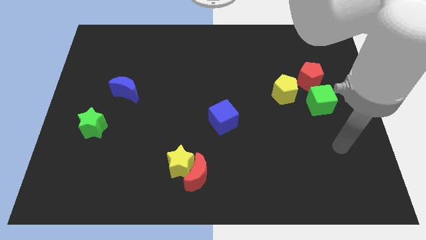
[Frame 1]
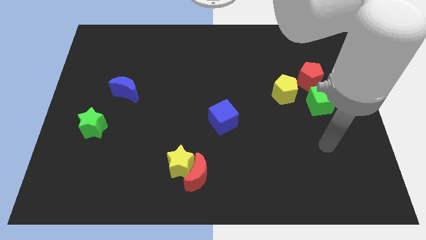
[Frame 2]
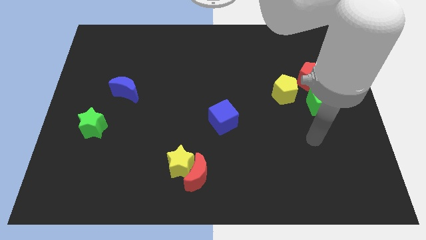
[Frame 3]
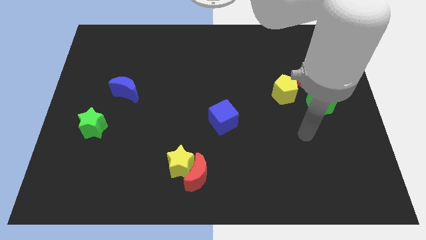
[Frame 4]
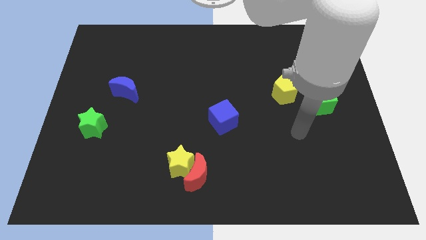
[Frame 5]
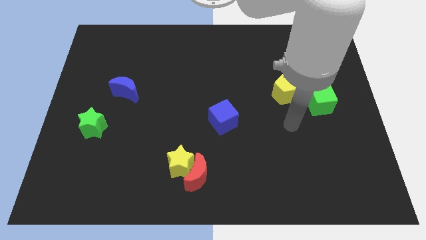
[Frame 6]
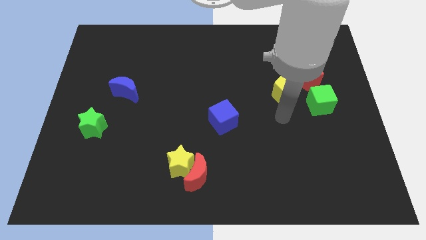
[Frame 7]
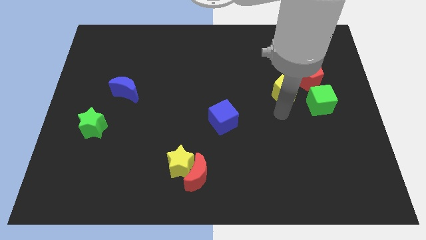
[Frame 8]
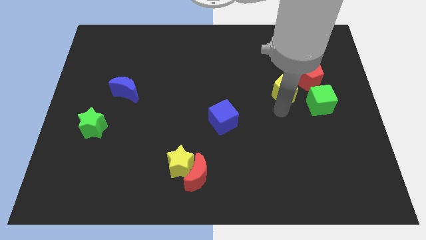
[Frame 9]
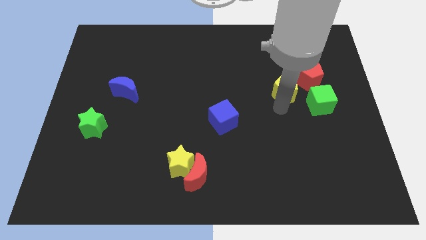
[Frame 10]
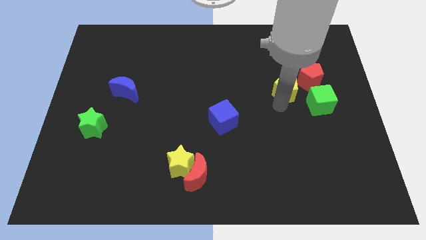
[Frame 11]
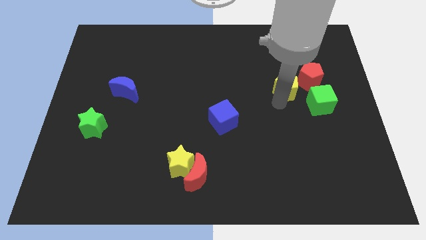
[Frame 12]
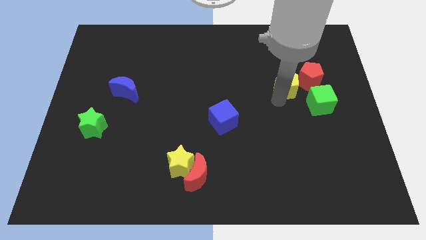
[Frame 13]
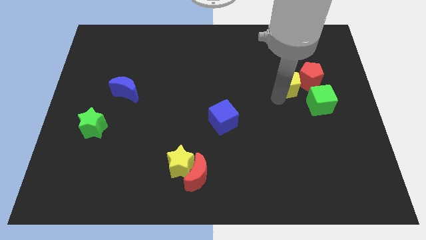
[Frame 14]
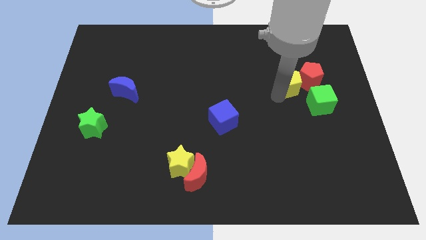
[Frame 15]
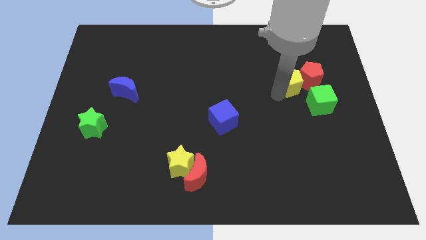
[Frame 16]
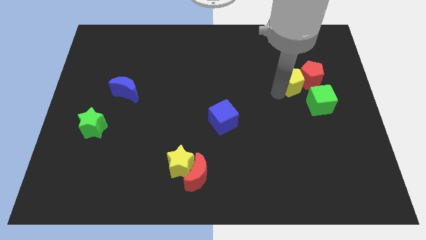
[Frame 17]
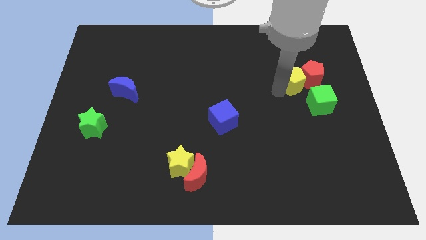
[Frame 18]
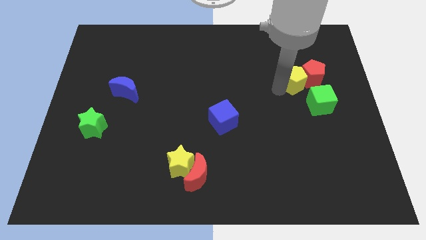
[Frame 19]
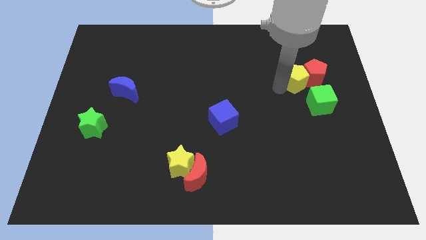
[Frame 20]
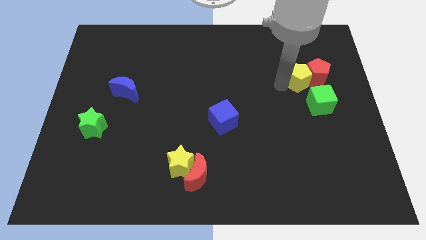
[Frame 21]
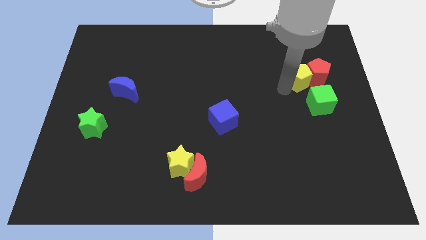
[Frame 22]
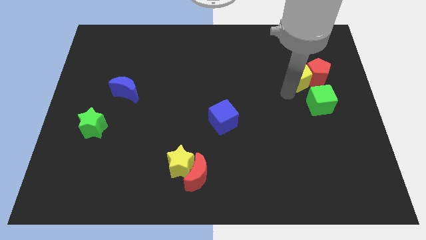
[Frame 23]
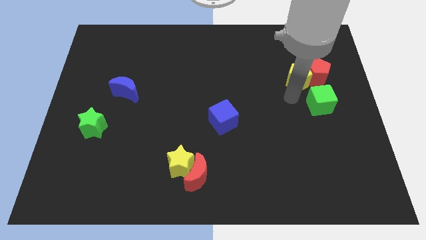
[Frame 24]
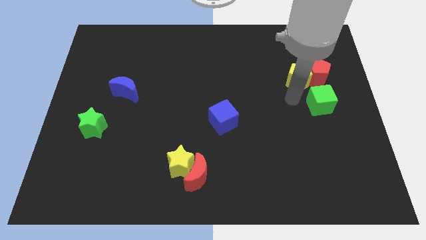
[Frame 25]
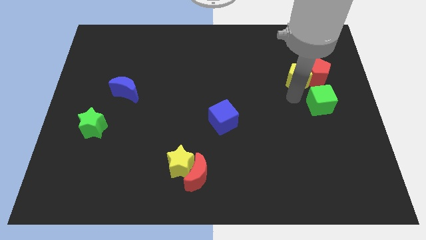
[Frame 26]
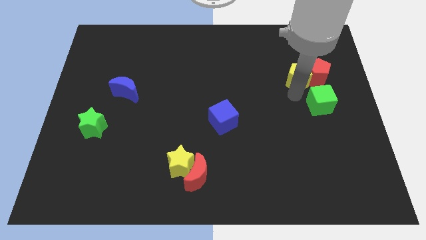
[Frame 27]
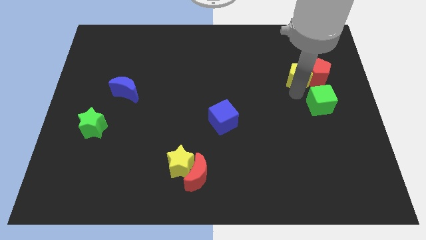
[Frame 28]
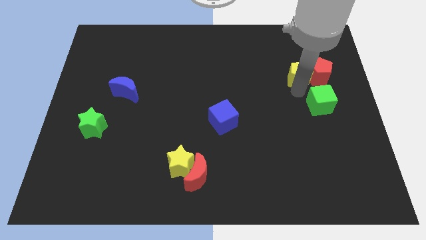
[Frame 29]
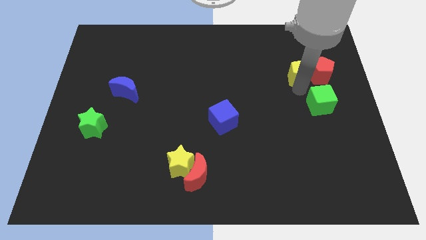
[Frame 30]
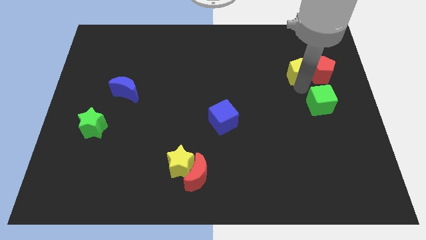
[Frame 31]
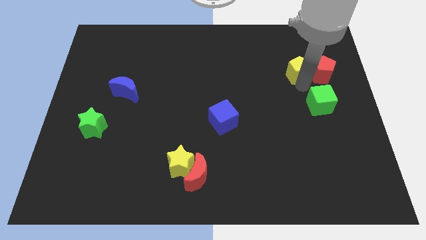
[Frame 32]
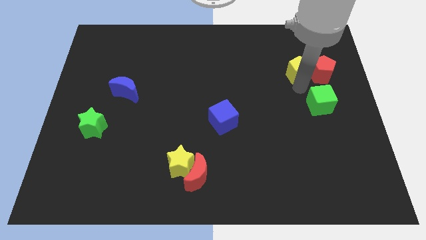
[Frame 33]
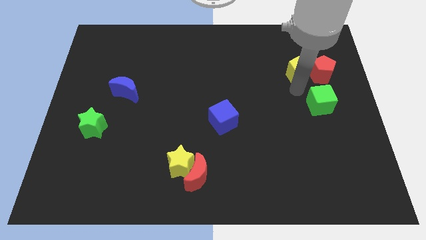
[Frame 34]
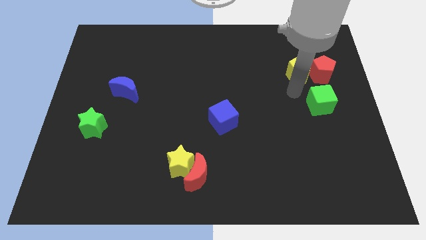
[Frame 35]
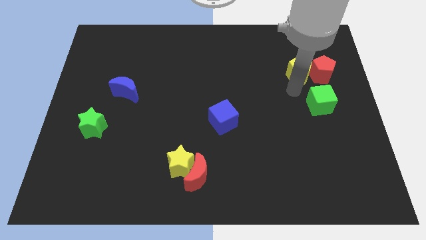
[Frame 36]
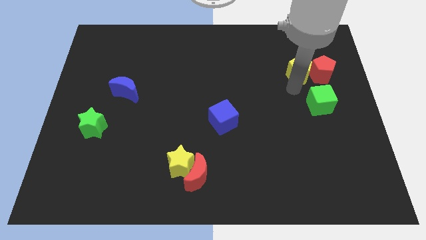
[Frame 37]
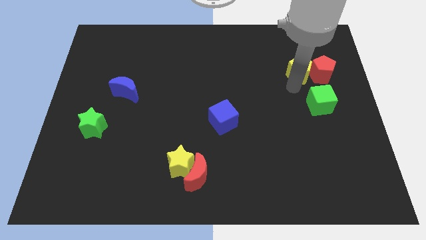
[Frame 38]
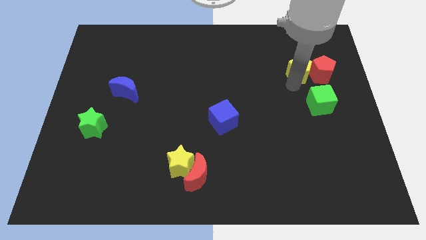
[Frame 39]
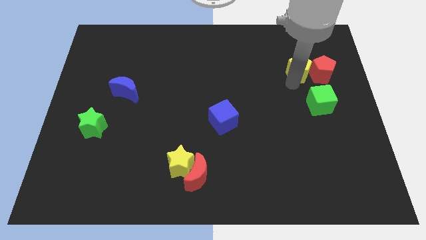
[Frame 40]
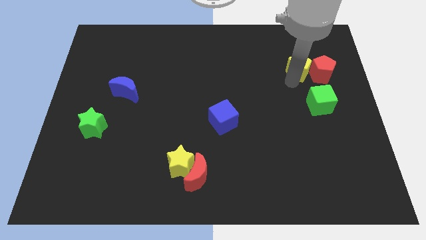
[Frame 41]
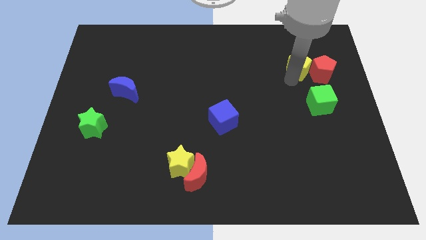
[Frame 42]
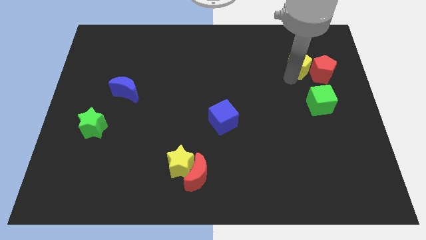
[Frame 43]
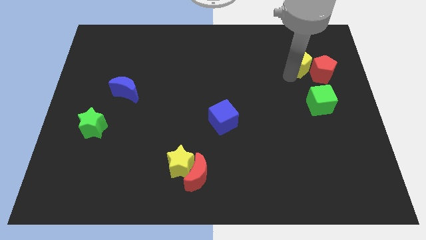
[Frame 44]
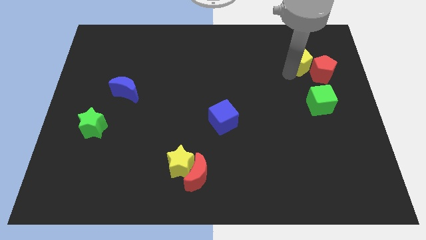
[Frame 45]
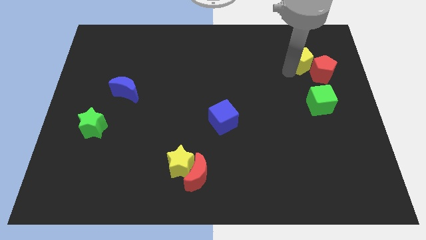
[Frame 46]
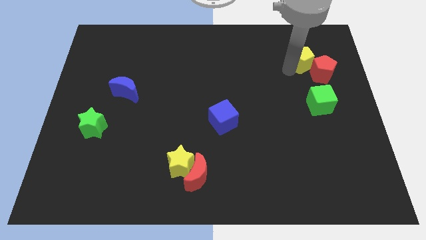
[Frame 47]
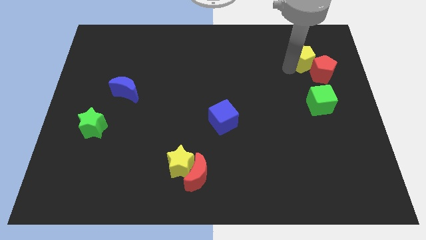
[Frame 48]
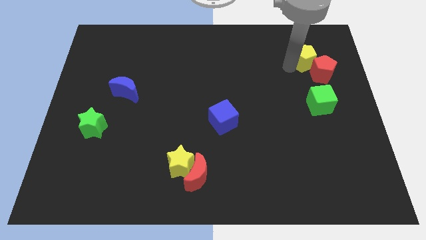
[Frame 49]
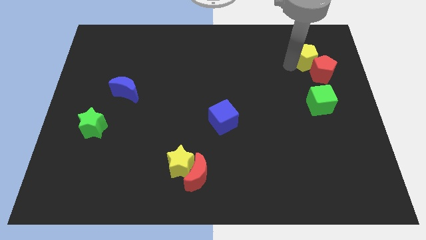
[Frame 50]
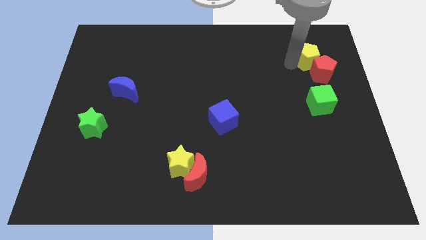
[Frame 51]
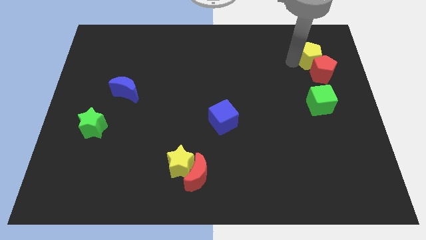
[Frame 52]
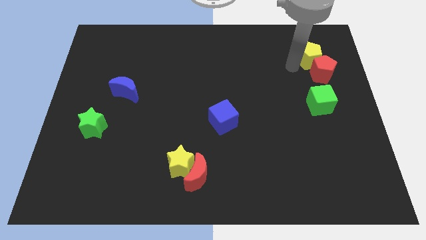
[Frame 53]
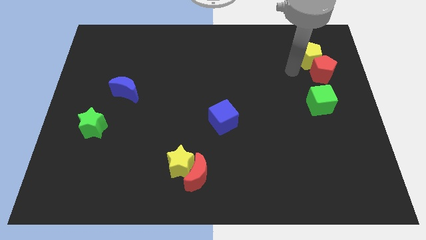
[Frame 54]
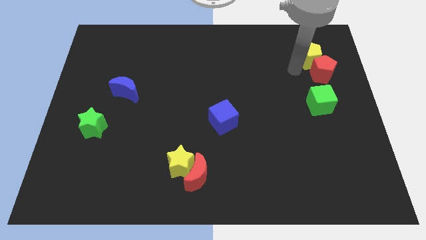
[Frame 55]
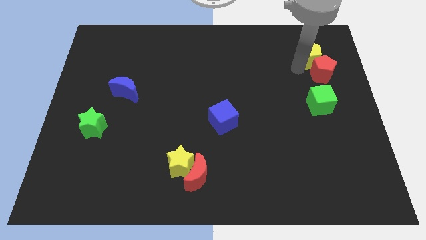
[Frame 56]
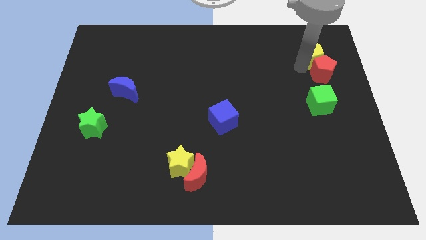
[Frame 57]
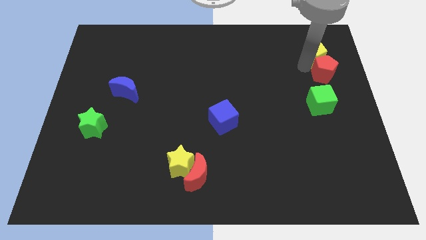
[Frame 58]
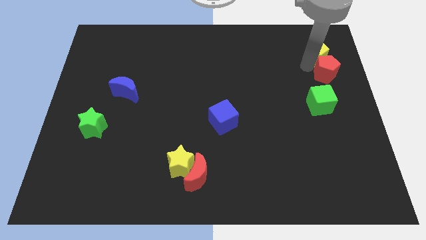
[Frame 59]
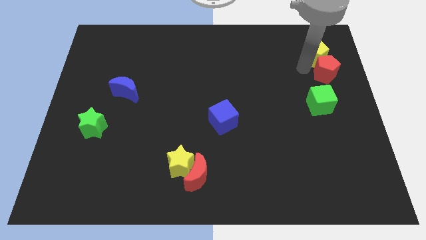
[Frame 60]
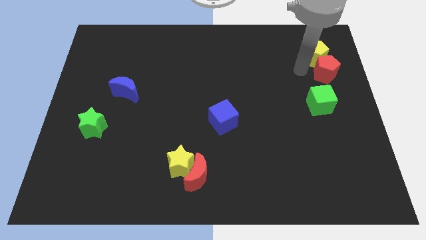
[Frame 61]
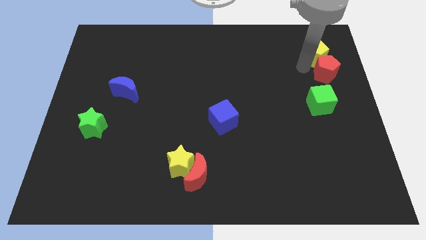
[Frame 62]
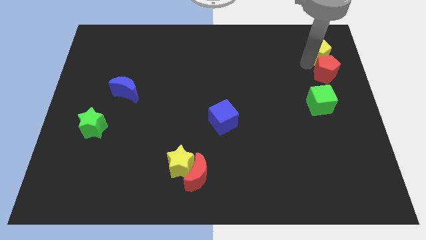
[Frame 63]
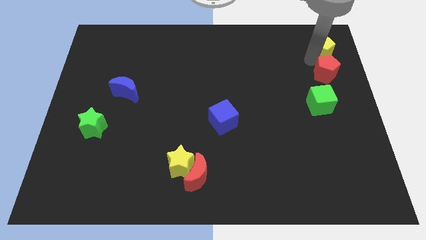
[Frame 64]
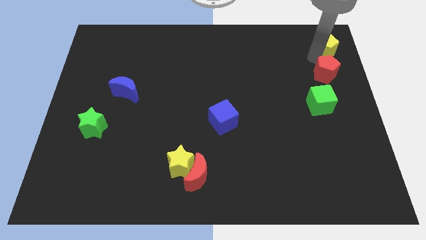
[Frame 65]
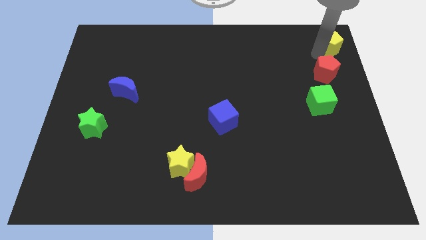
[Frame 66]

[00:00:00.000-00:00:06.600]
slide the yellow pentagon to the top right
